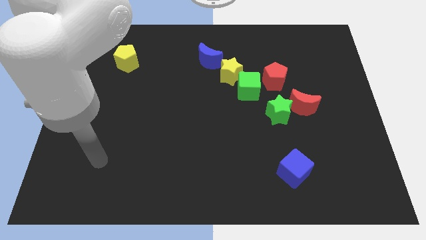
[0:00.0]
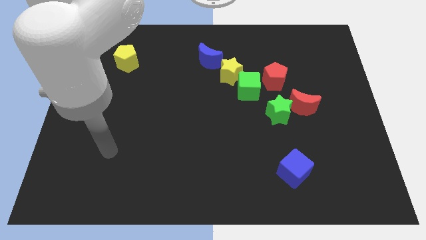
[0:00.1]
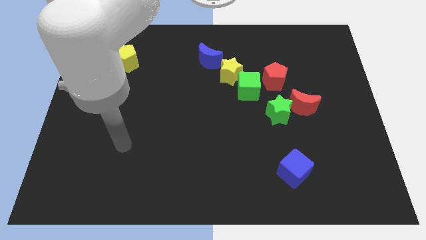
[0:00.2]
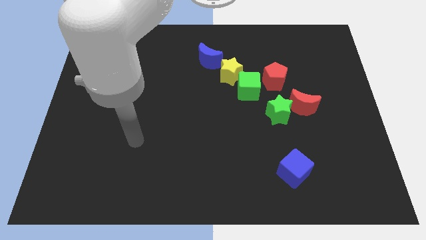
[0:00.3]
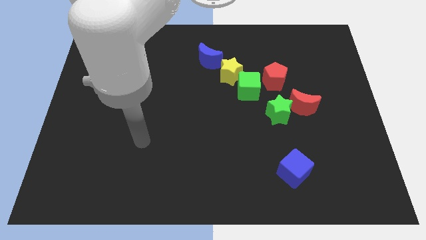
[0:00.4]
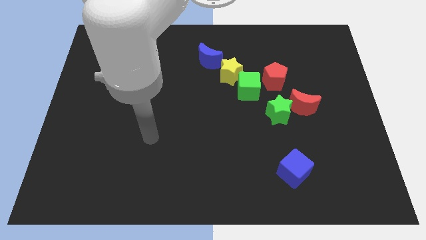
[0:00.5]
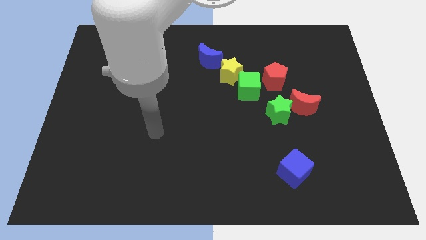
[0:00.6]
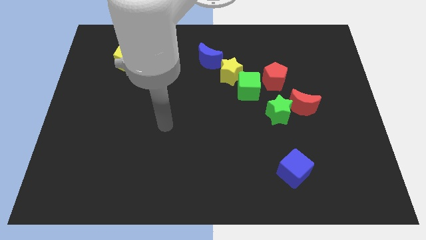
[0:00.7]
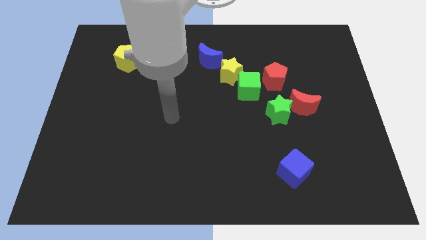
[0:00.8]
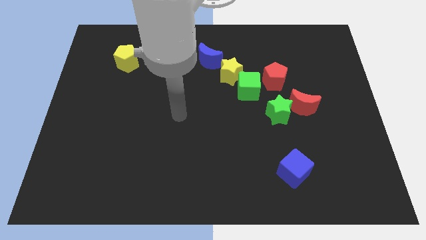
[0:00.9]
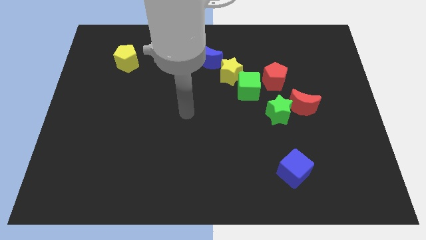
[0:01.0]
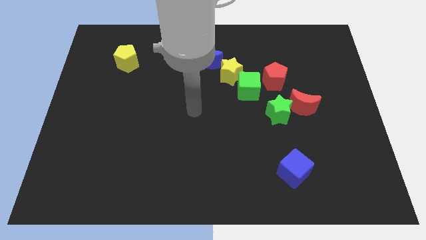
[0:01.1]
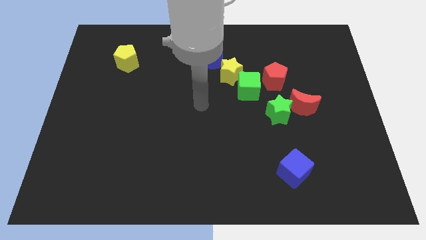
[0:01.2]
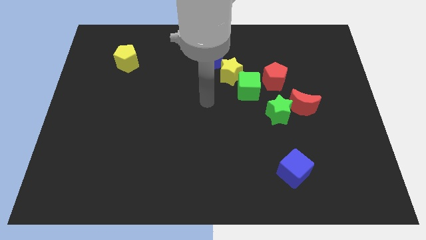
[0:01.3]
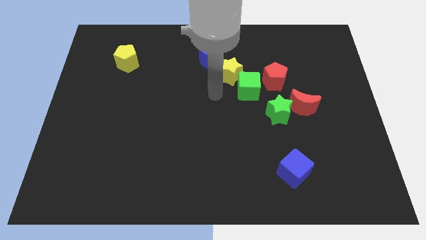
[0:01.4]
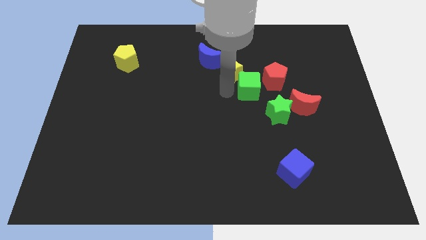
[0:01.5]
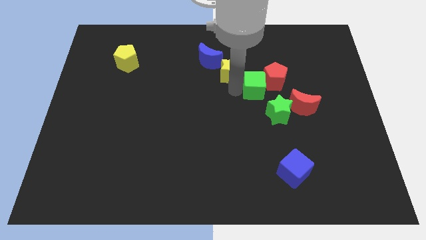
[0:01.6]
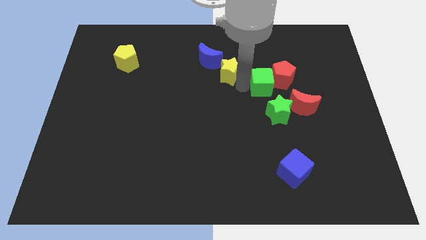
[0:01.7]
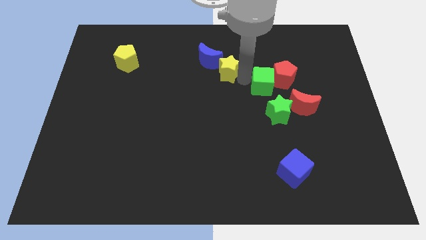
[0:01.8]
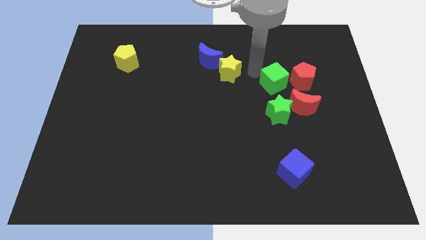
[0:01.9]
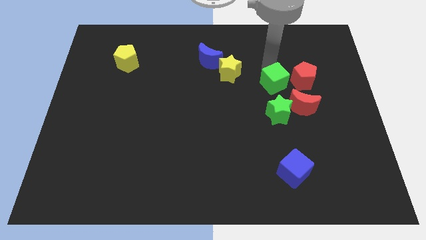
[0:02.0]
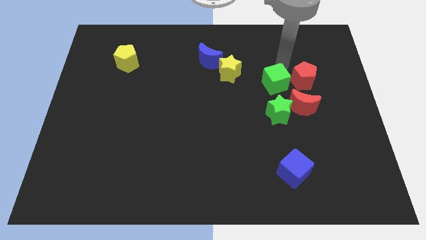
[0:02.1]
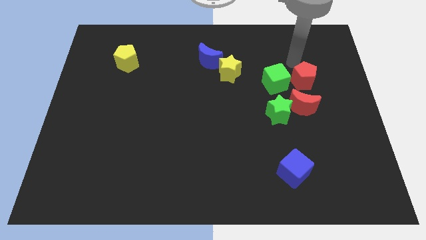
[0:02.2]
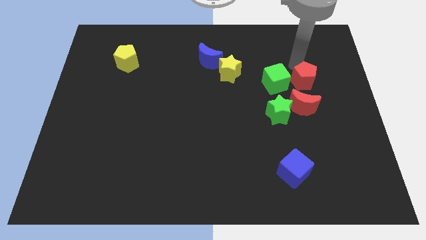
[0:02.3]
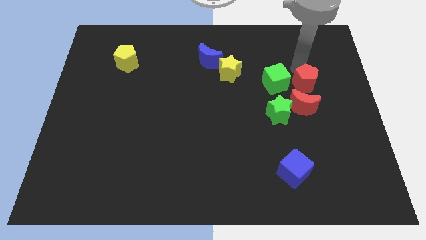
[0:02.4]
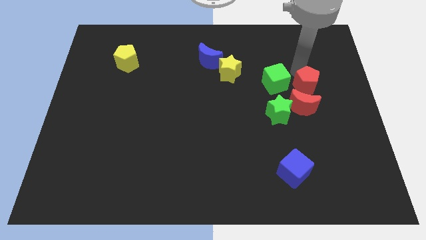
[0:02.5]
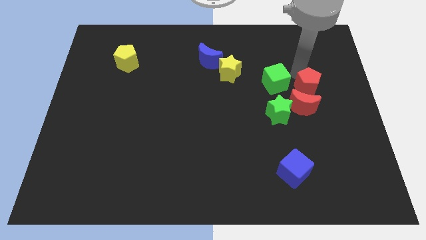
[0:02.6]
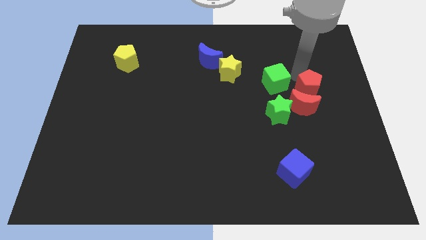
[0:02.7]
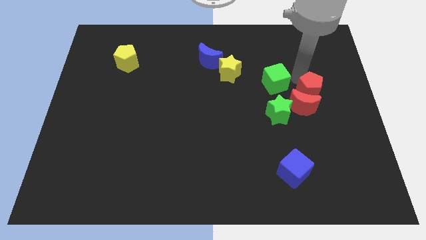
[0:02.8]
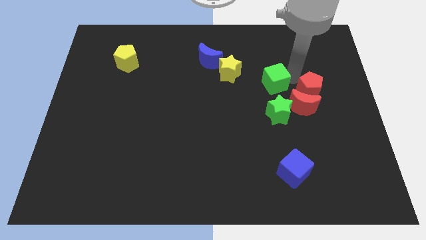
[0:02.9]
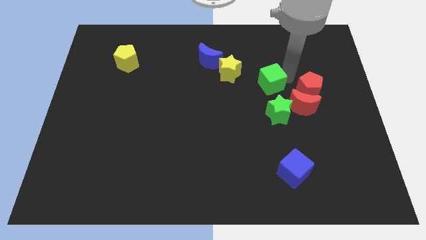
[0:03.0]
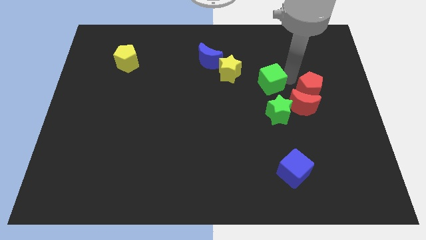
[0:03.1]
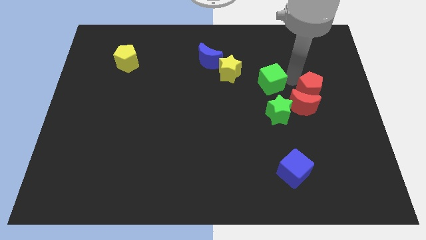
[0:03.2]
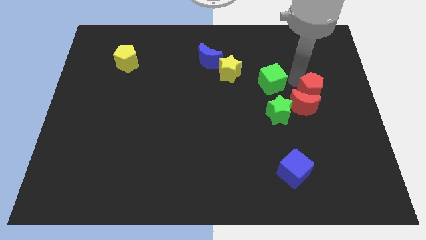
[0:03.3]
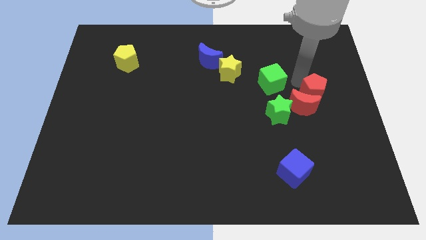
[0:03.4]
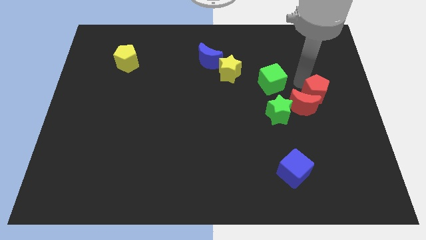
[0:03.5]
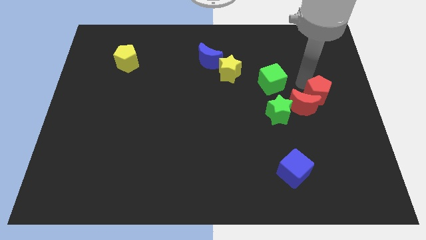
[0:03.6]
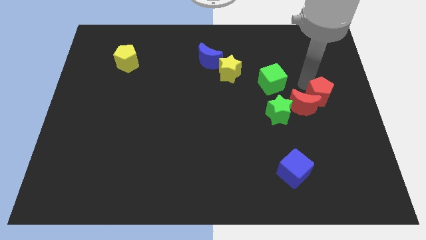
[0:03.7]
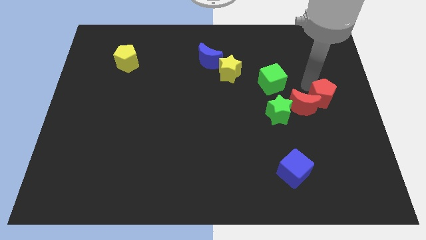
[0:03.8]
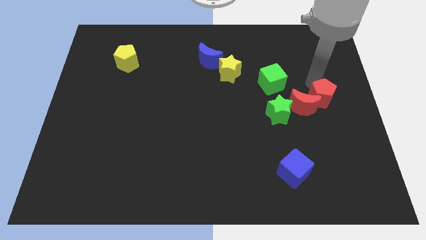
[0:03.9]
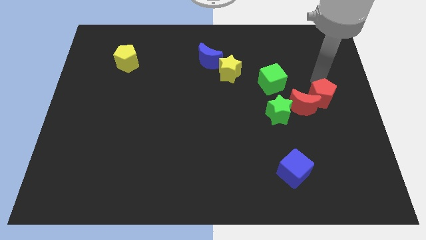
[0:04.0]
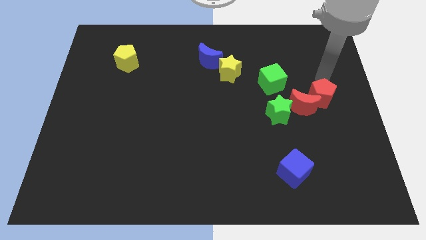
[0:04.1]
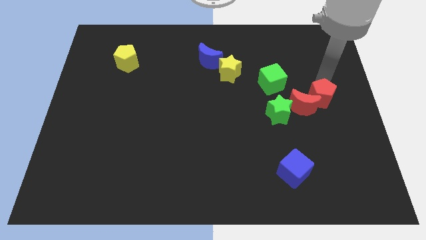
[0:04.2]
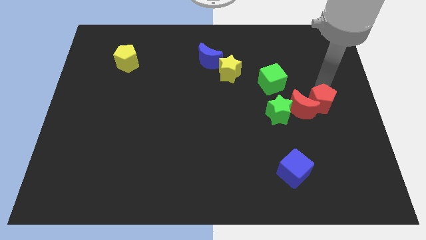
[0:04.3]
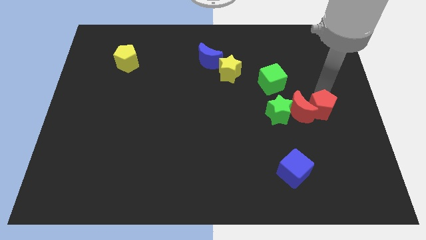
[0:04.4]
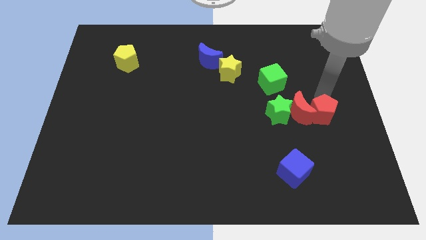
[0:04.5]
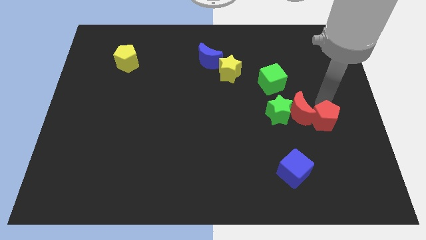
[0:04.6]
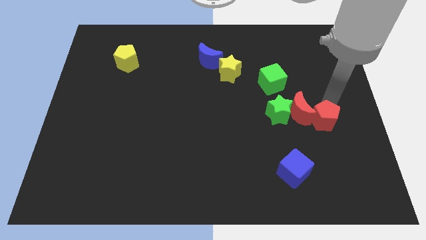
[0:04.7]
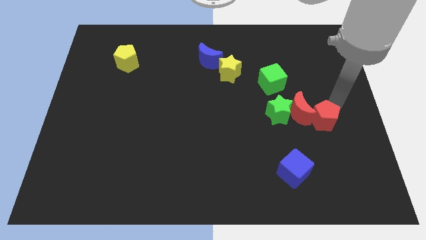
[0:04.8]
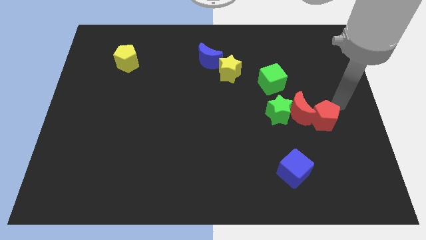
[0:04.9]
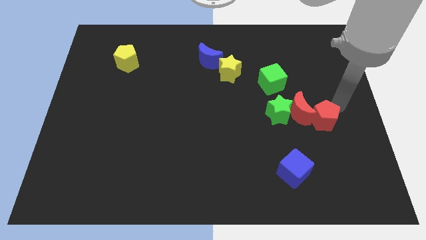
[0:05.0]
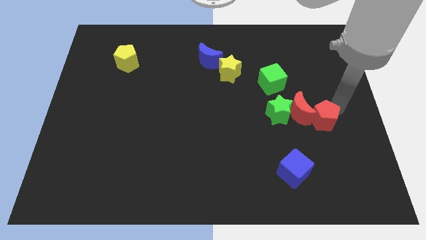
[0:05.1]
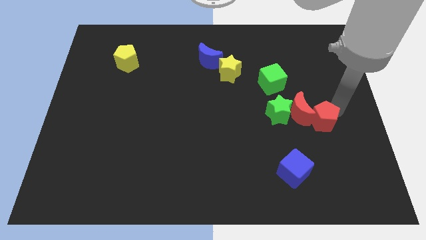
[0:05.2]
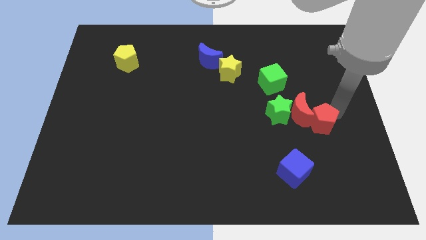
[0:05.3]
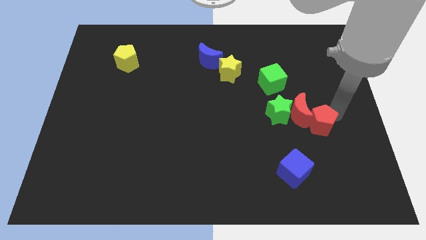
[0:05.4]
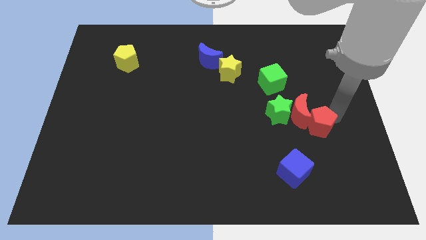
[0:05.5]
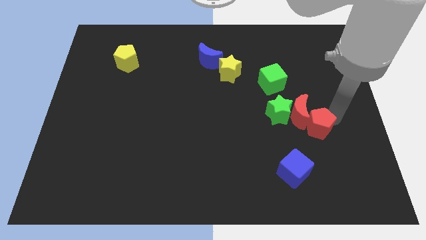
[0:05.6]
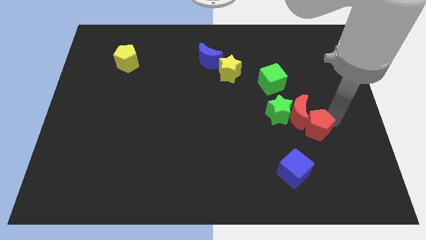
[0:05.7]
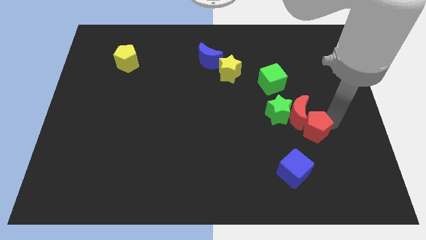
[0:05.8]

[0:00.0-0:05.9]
push the red pentagon diagonally up and to the right of the blue cube

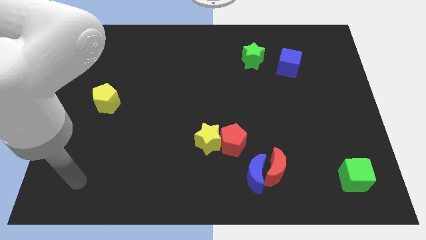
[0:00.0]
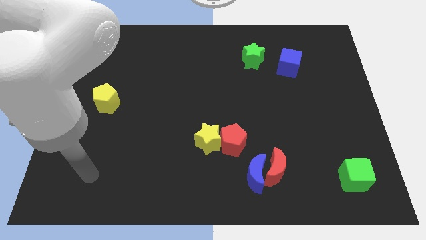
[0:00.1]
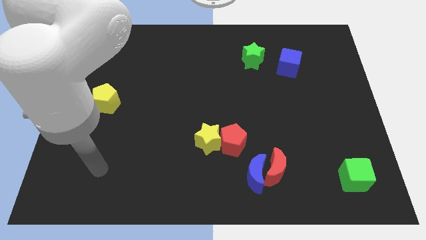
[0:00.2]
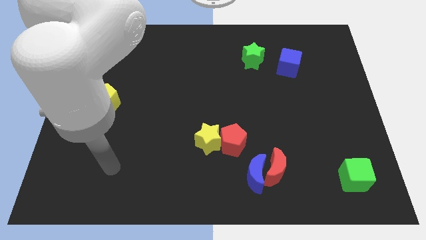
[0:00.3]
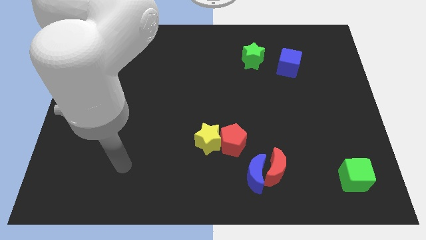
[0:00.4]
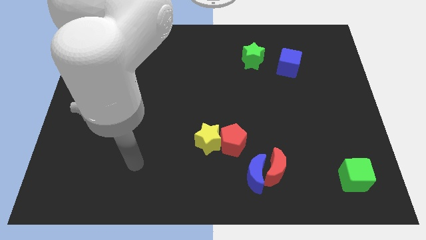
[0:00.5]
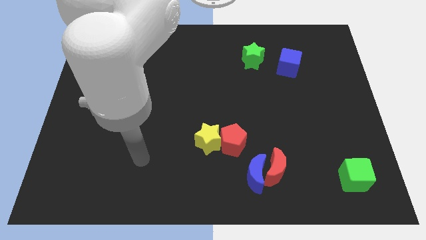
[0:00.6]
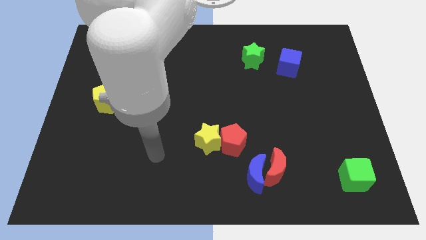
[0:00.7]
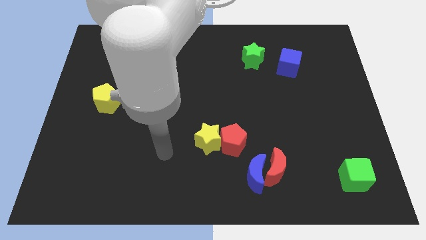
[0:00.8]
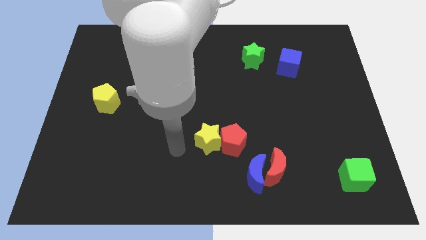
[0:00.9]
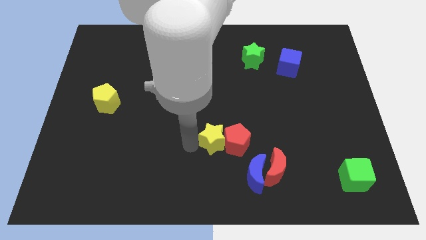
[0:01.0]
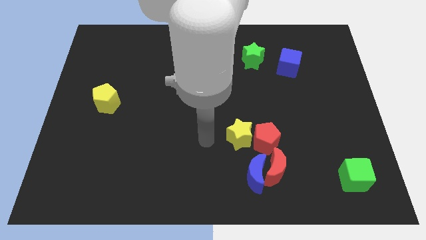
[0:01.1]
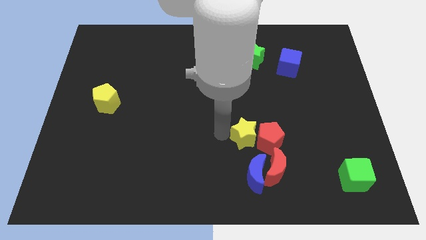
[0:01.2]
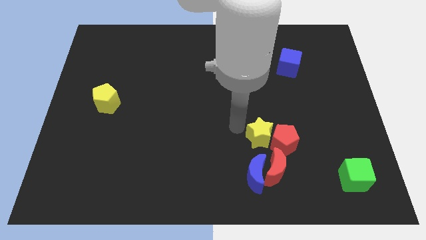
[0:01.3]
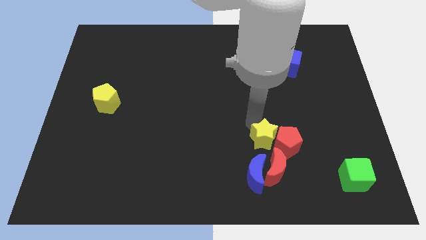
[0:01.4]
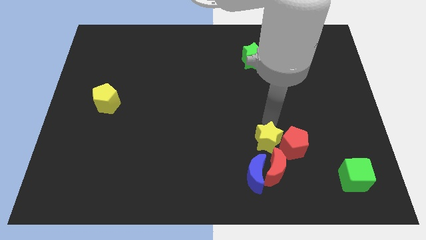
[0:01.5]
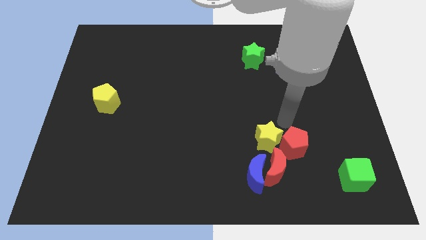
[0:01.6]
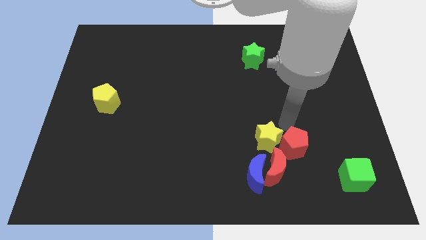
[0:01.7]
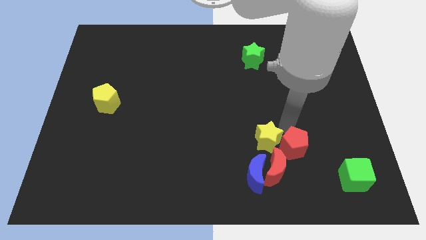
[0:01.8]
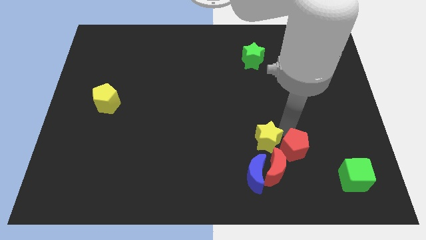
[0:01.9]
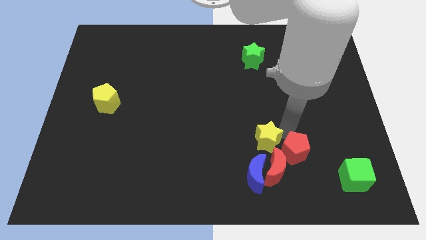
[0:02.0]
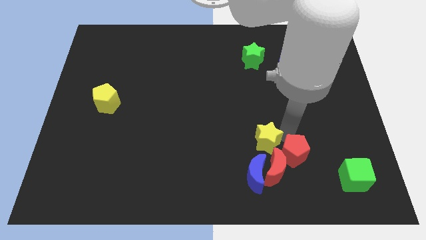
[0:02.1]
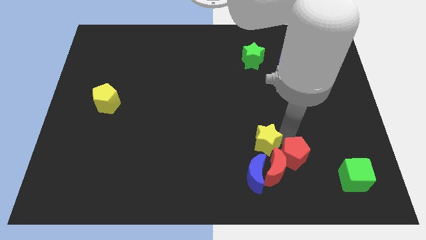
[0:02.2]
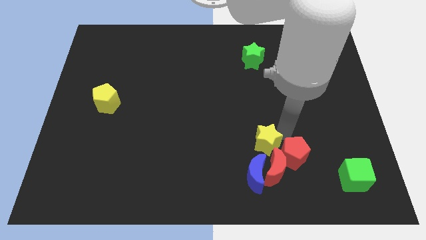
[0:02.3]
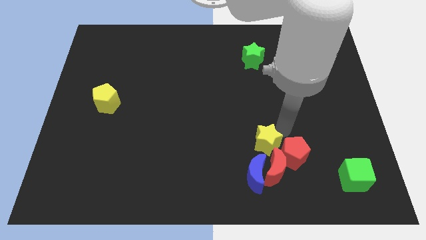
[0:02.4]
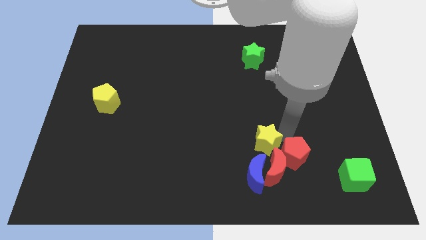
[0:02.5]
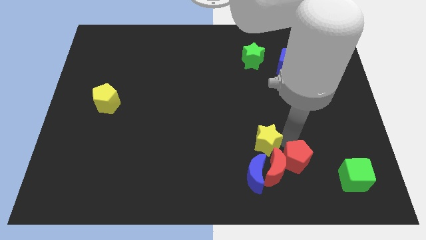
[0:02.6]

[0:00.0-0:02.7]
put the red pentagon to the left of the green cube
